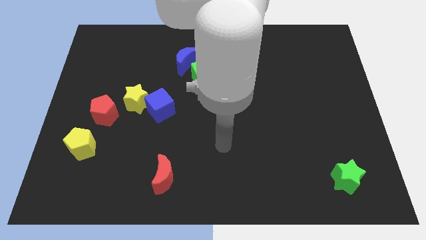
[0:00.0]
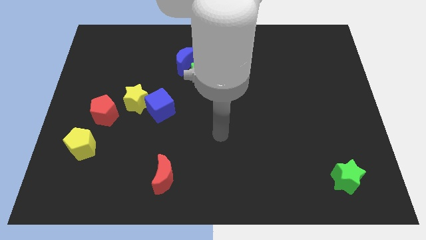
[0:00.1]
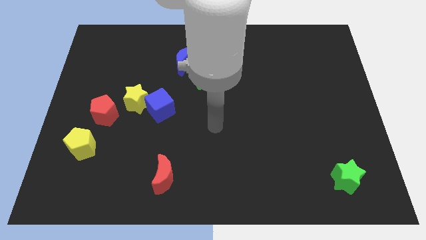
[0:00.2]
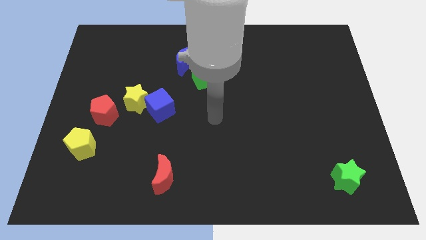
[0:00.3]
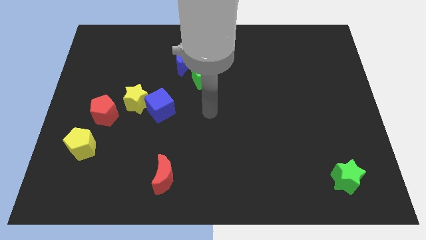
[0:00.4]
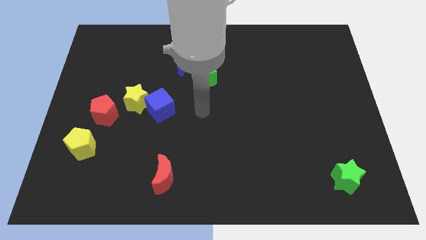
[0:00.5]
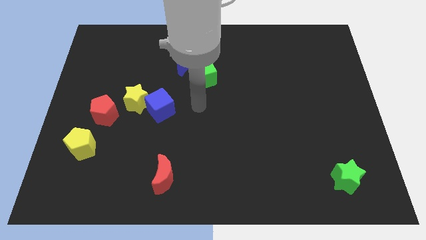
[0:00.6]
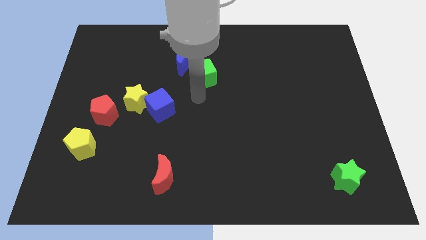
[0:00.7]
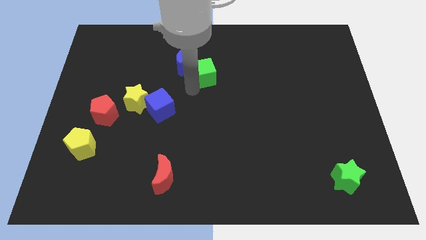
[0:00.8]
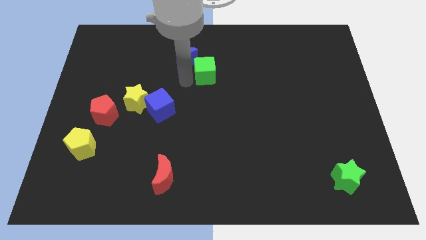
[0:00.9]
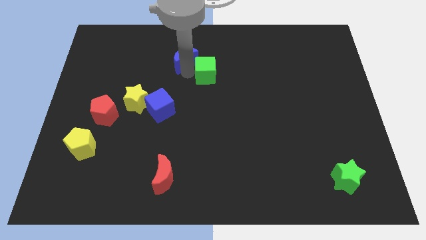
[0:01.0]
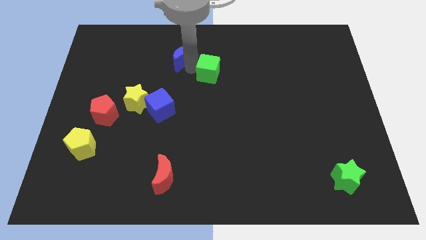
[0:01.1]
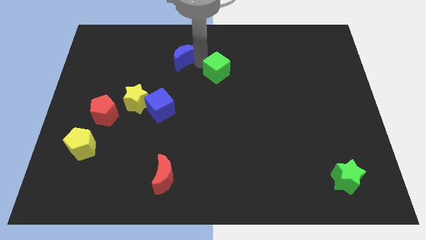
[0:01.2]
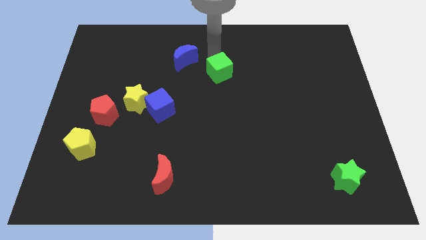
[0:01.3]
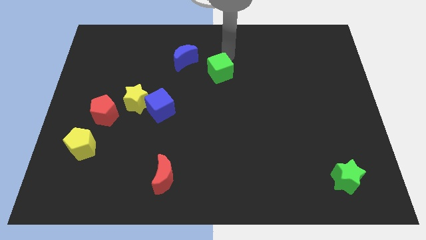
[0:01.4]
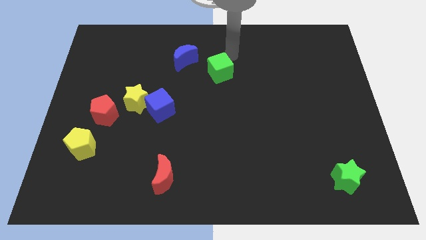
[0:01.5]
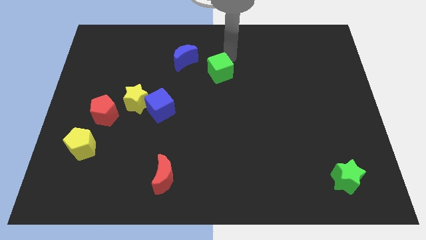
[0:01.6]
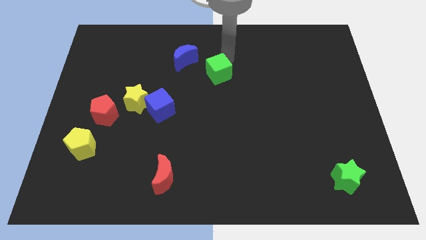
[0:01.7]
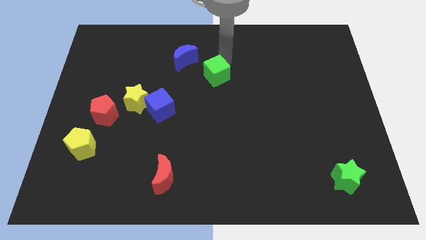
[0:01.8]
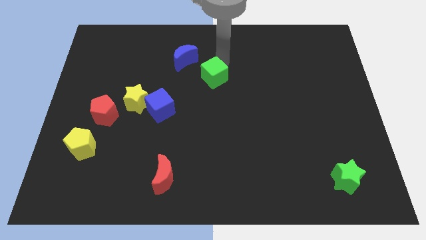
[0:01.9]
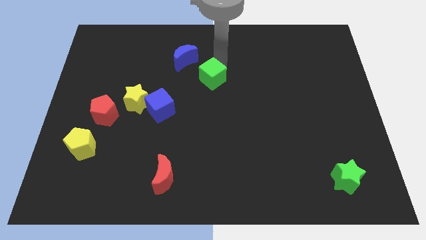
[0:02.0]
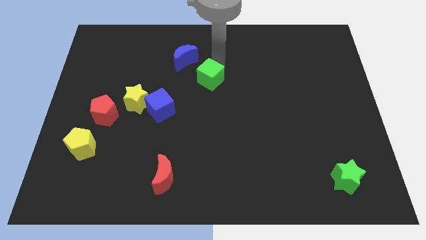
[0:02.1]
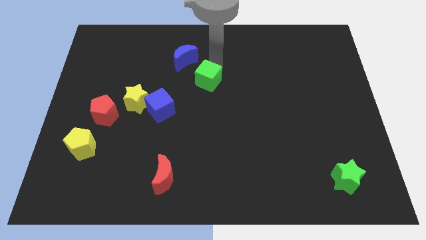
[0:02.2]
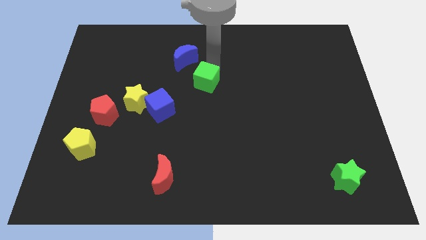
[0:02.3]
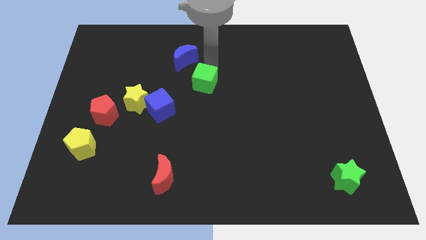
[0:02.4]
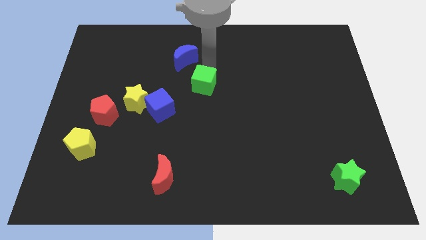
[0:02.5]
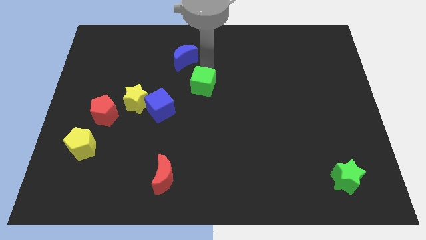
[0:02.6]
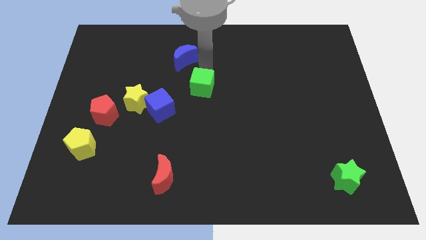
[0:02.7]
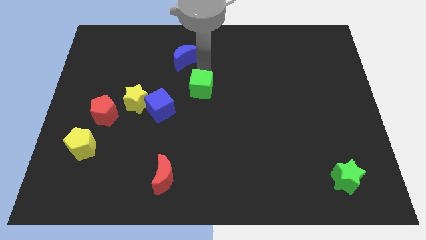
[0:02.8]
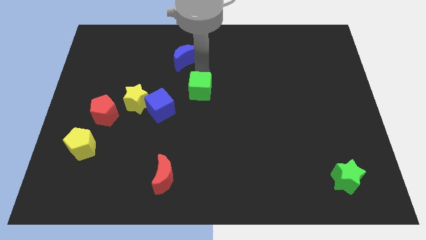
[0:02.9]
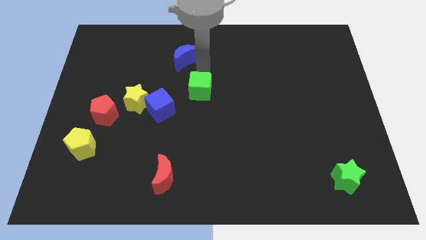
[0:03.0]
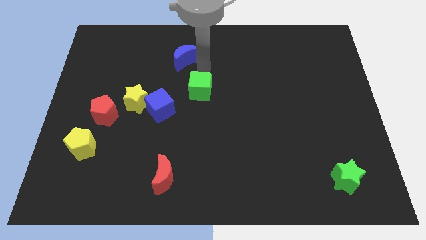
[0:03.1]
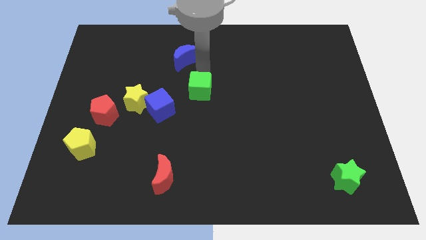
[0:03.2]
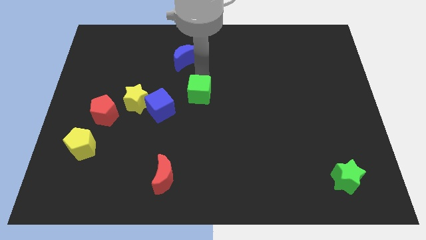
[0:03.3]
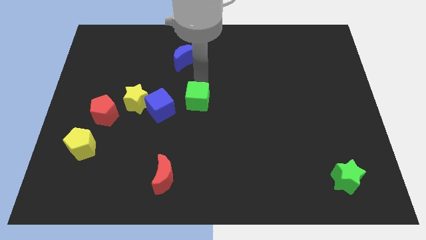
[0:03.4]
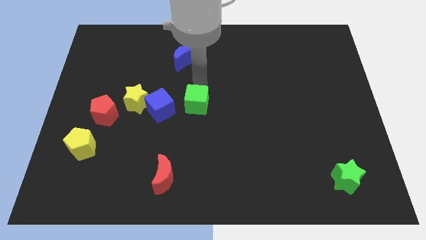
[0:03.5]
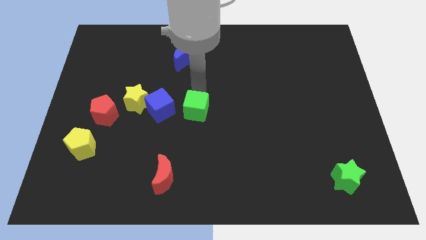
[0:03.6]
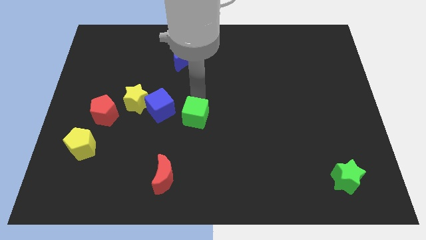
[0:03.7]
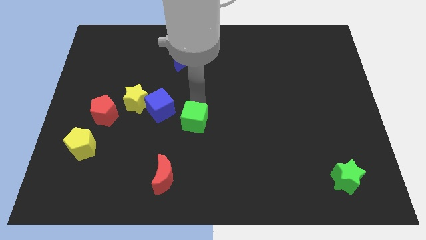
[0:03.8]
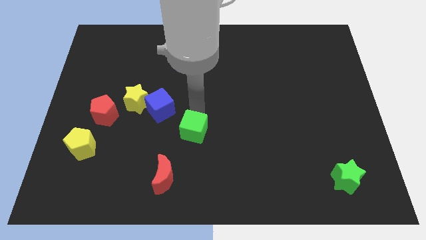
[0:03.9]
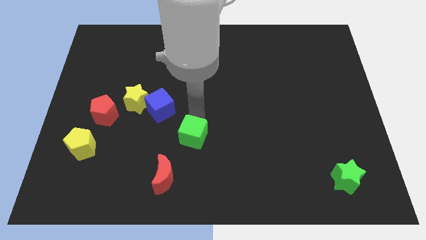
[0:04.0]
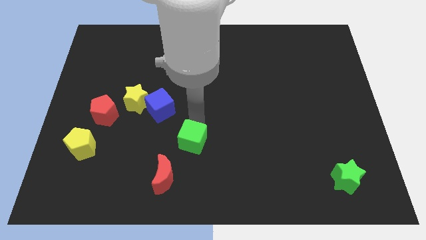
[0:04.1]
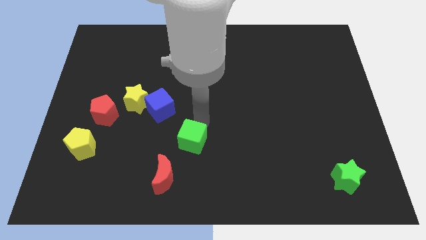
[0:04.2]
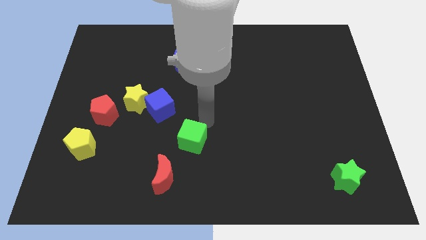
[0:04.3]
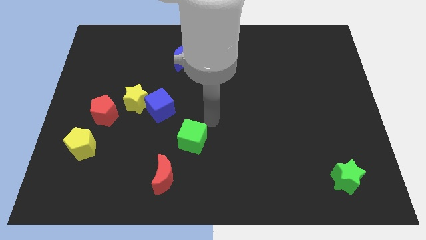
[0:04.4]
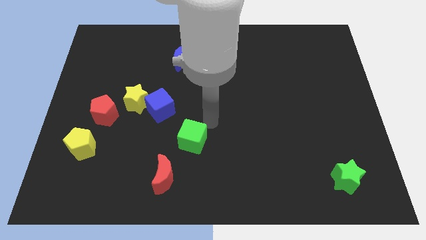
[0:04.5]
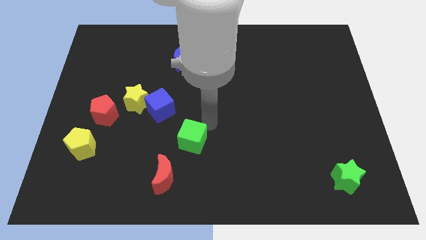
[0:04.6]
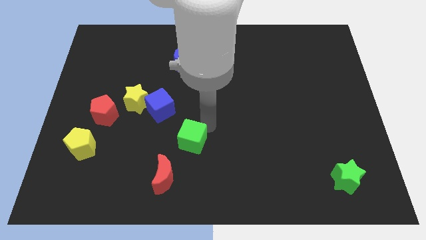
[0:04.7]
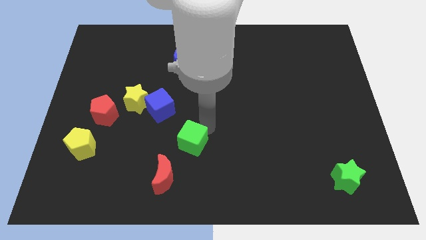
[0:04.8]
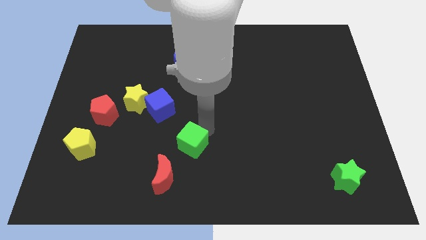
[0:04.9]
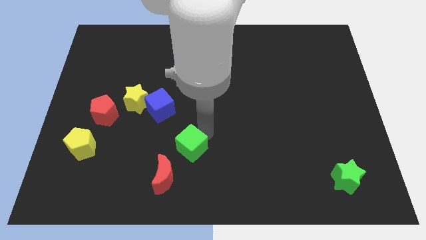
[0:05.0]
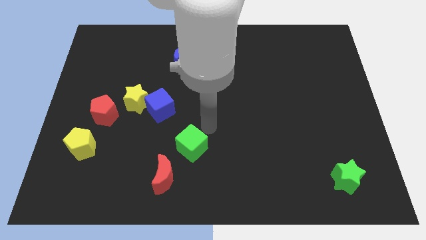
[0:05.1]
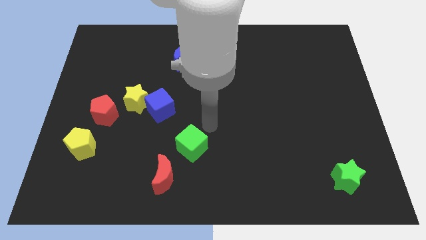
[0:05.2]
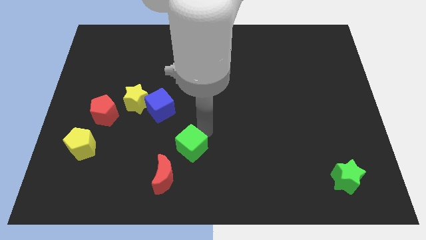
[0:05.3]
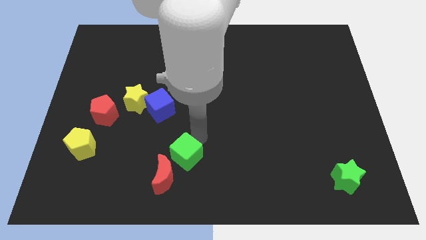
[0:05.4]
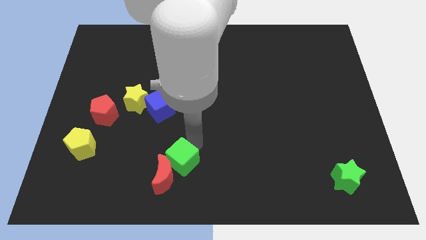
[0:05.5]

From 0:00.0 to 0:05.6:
push the green cube next to the red moon
